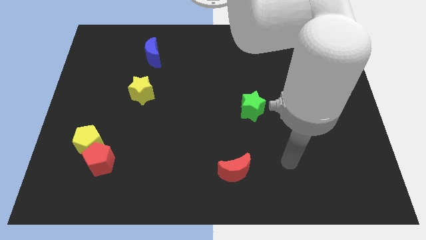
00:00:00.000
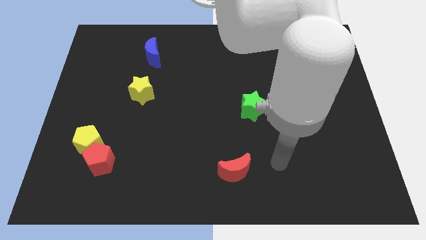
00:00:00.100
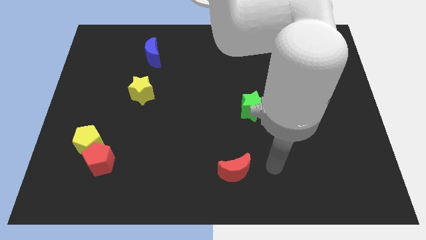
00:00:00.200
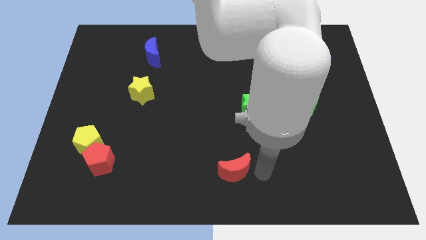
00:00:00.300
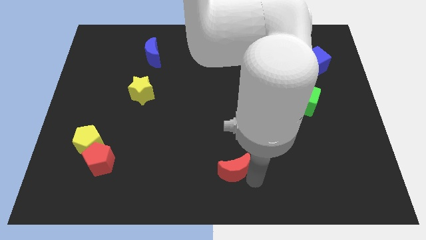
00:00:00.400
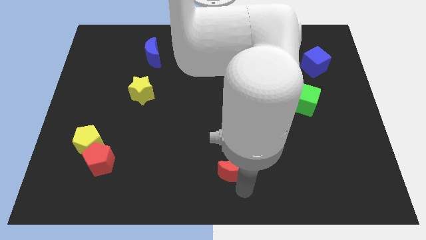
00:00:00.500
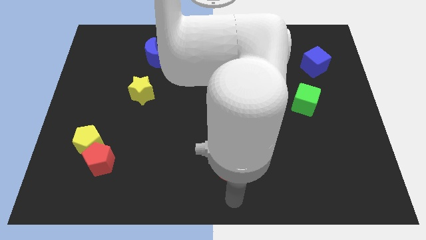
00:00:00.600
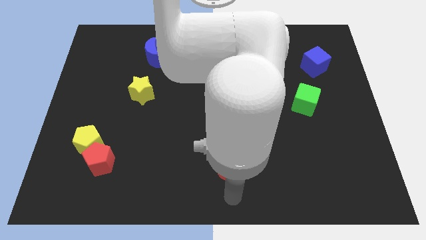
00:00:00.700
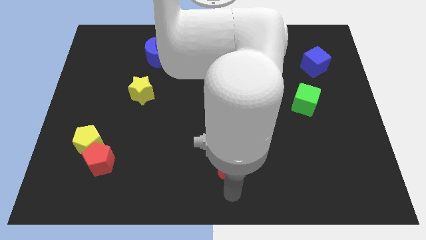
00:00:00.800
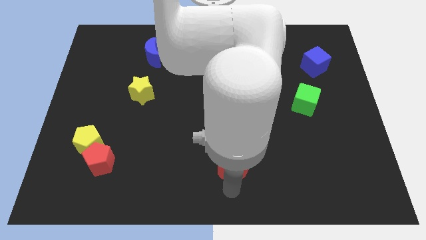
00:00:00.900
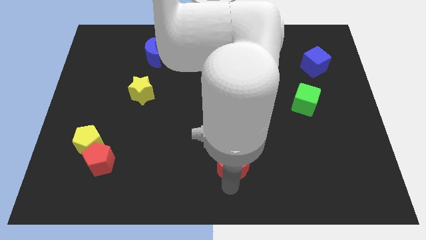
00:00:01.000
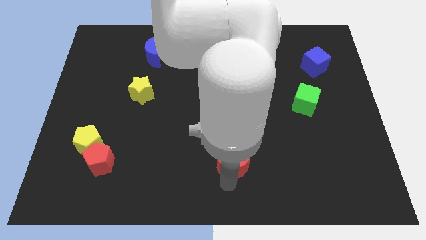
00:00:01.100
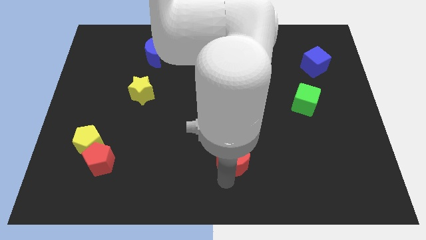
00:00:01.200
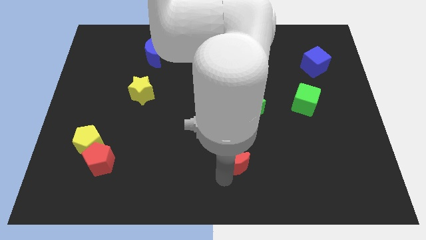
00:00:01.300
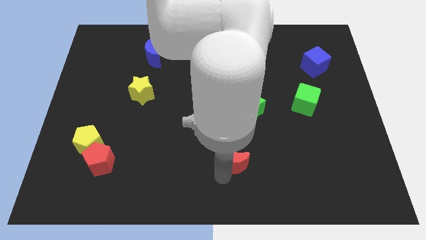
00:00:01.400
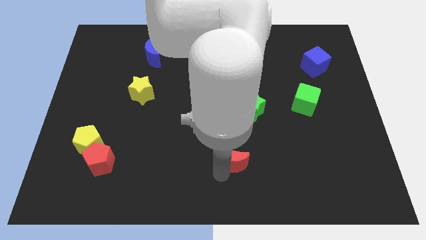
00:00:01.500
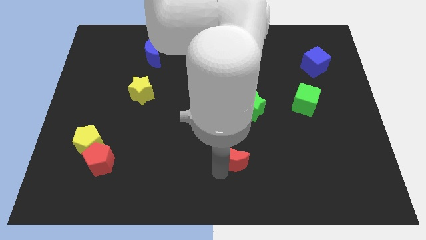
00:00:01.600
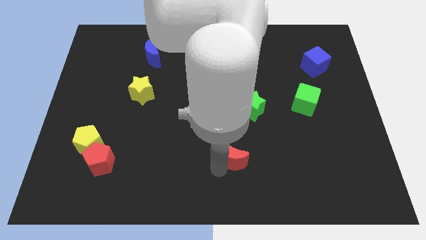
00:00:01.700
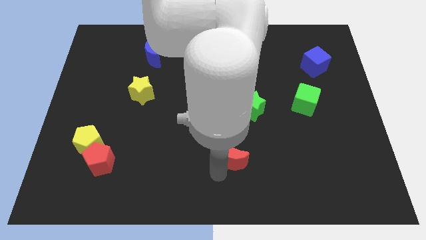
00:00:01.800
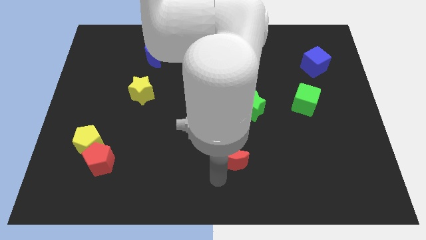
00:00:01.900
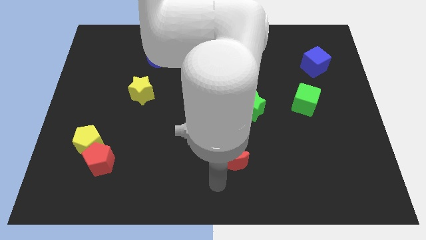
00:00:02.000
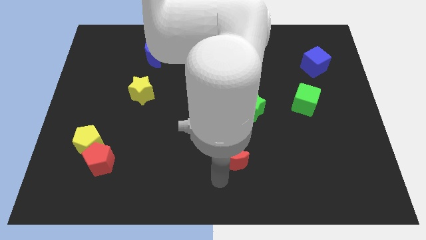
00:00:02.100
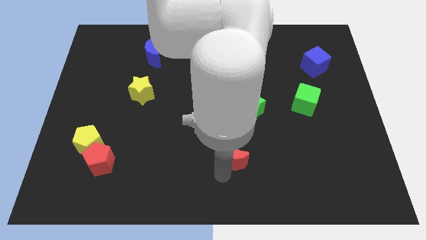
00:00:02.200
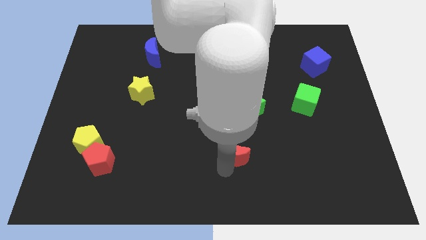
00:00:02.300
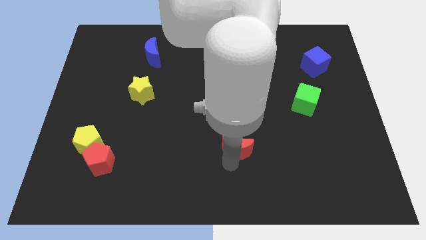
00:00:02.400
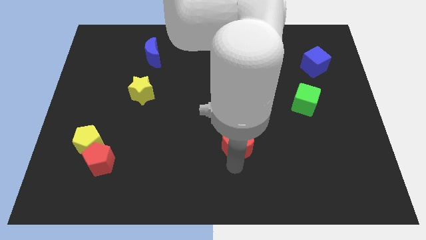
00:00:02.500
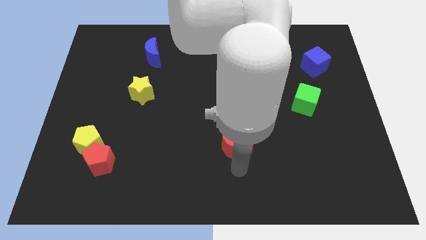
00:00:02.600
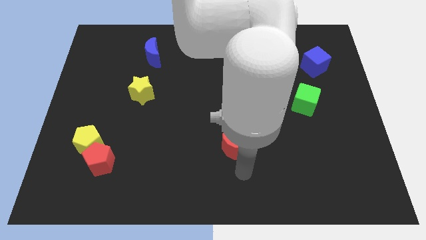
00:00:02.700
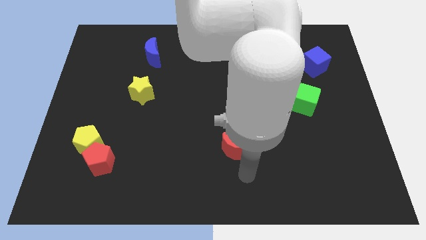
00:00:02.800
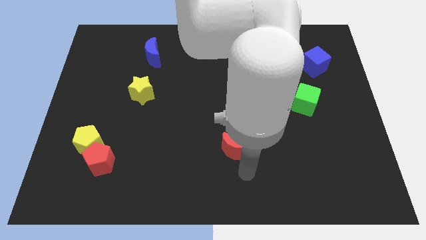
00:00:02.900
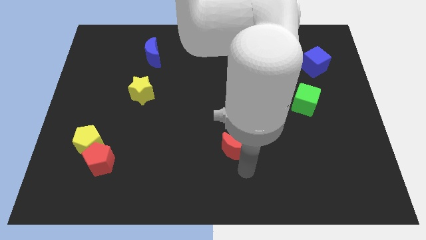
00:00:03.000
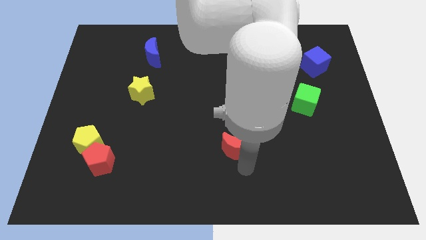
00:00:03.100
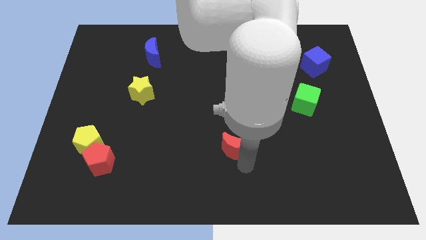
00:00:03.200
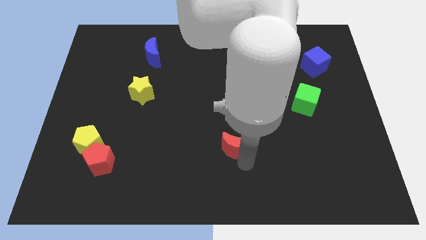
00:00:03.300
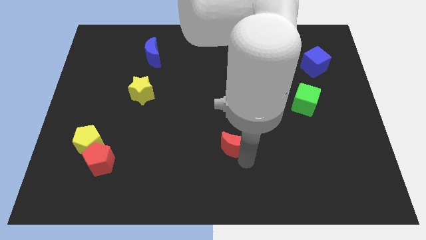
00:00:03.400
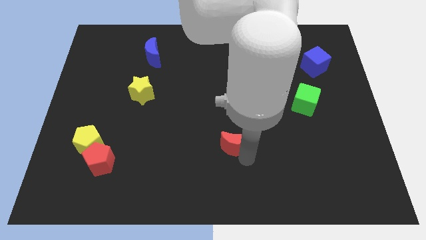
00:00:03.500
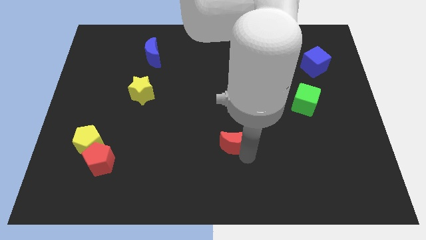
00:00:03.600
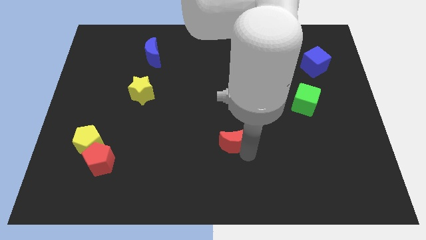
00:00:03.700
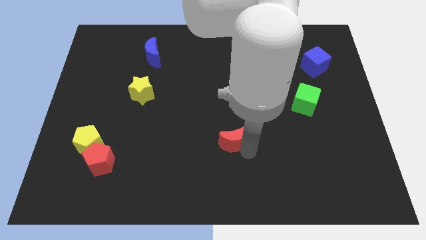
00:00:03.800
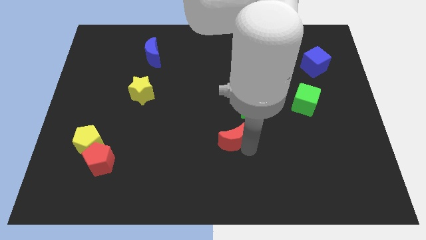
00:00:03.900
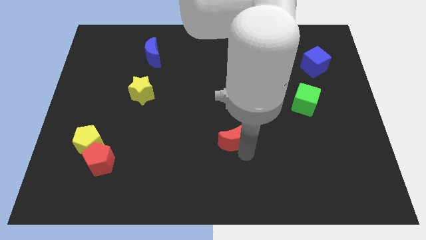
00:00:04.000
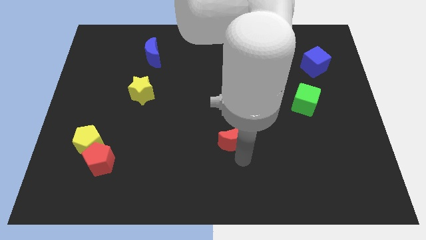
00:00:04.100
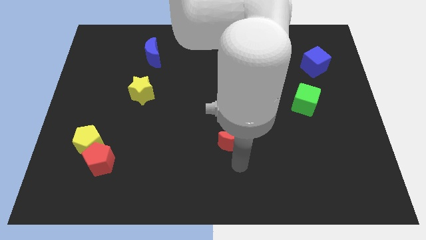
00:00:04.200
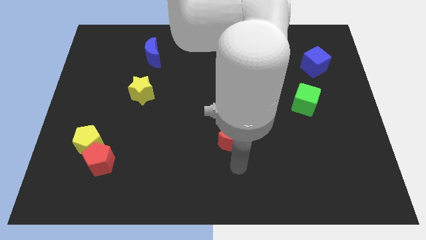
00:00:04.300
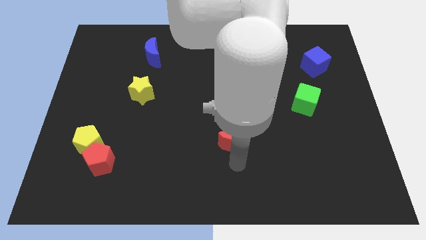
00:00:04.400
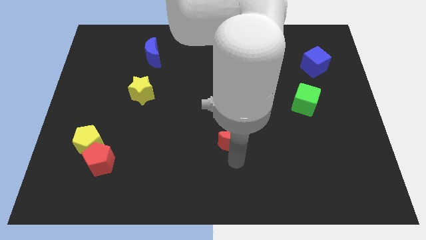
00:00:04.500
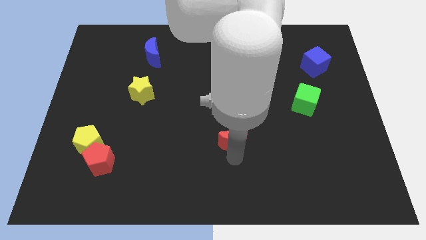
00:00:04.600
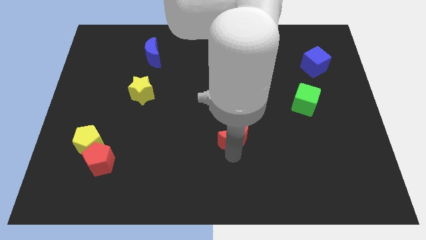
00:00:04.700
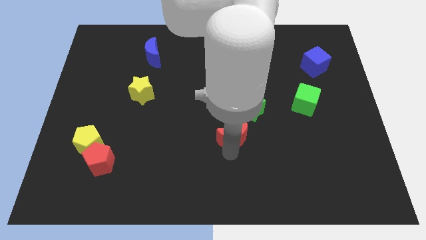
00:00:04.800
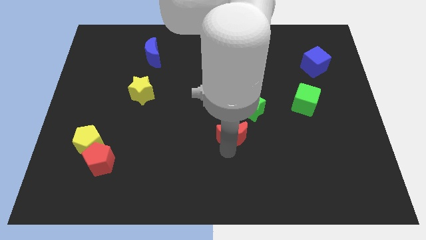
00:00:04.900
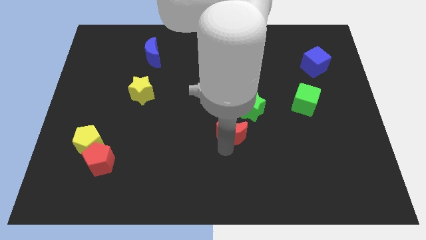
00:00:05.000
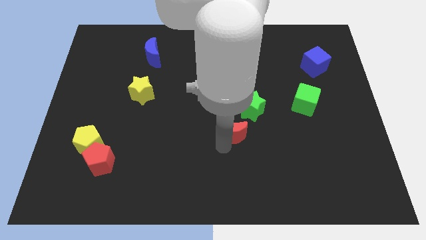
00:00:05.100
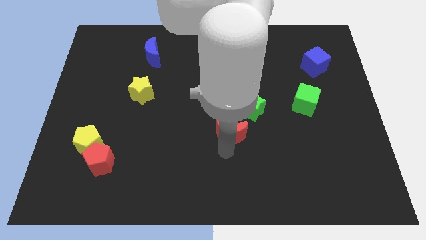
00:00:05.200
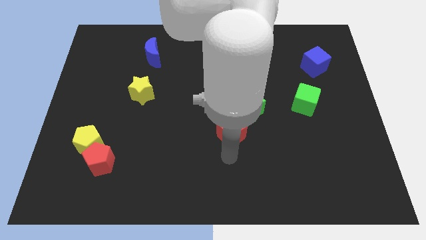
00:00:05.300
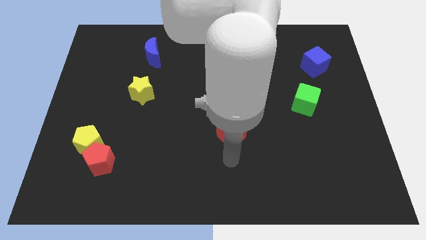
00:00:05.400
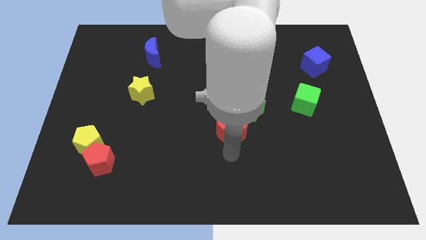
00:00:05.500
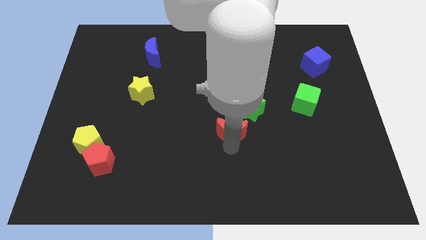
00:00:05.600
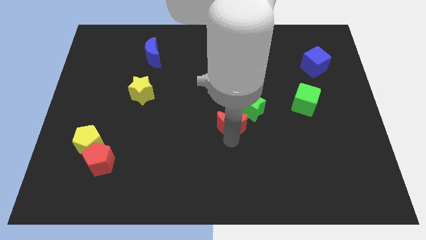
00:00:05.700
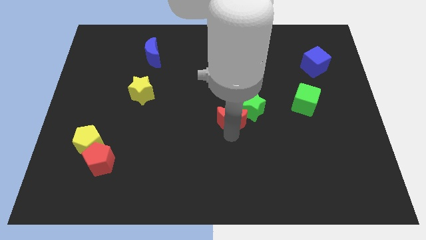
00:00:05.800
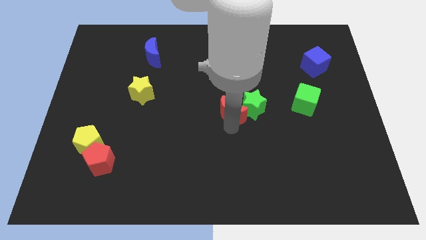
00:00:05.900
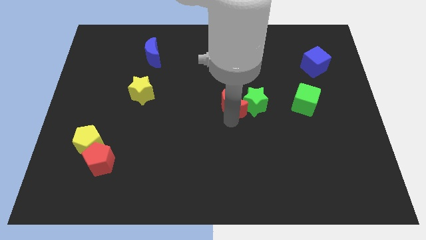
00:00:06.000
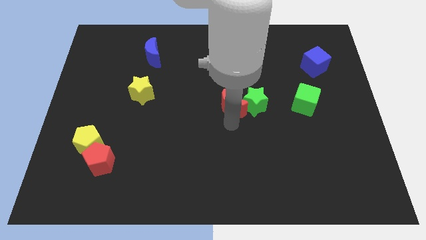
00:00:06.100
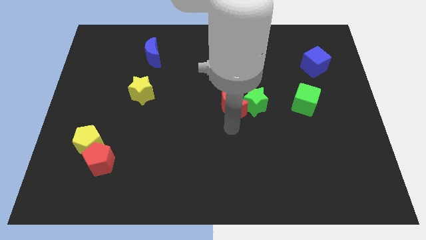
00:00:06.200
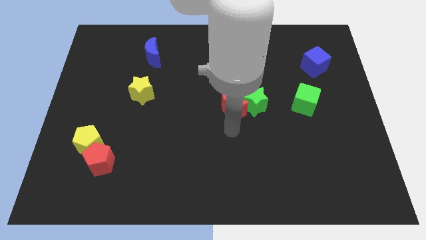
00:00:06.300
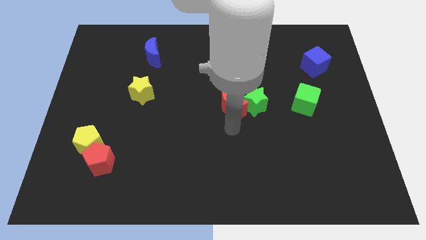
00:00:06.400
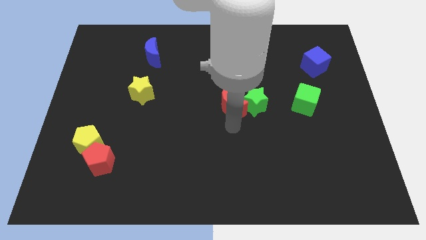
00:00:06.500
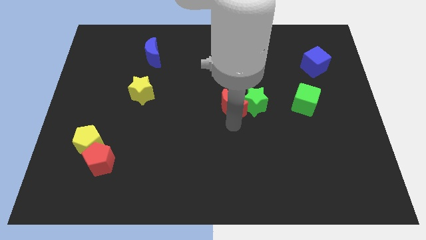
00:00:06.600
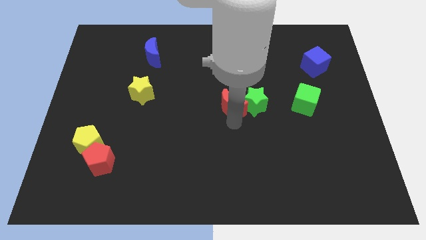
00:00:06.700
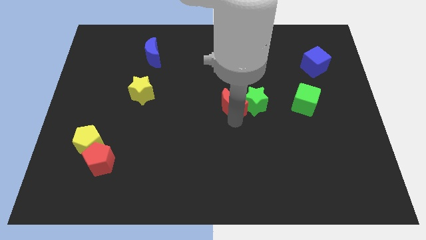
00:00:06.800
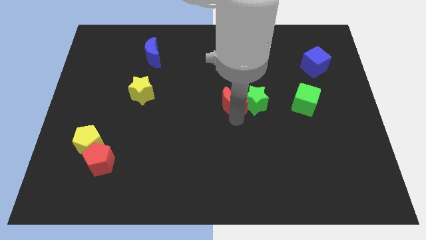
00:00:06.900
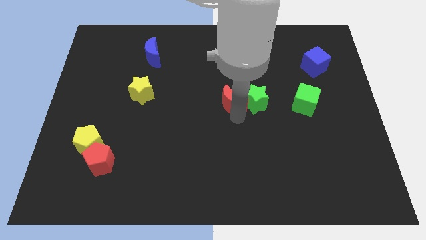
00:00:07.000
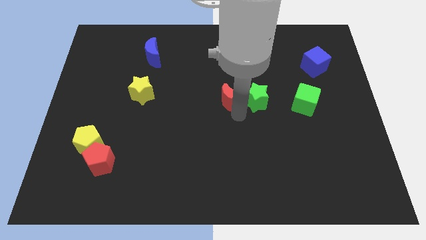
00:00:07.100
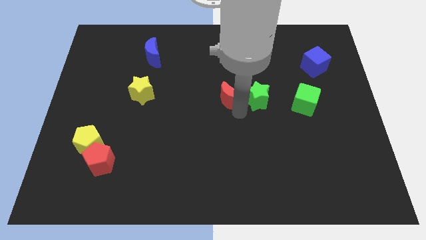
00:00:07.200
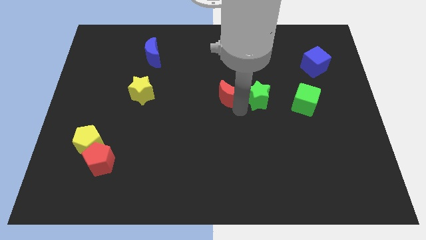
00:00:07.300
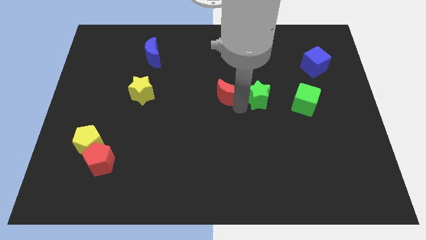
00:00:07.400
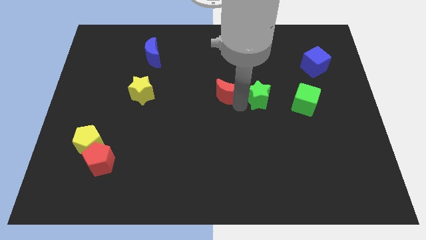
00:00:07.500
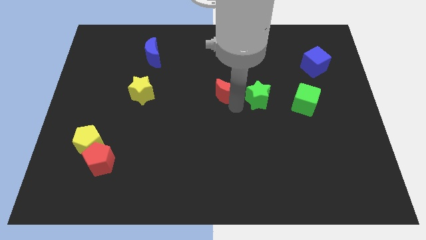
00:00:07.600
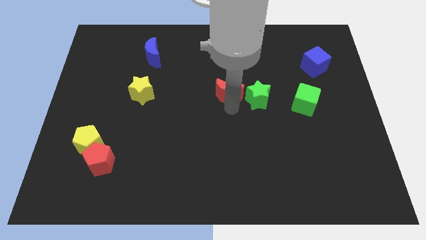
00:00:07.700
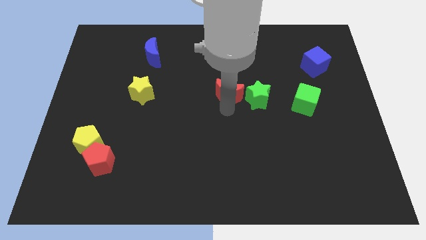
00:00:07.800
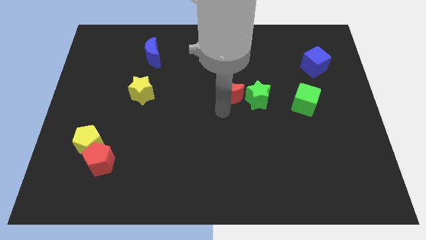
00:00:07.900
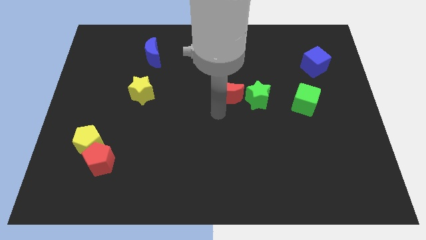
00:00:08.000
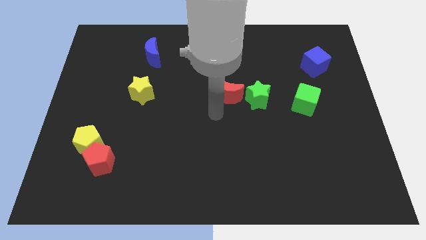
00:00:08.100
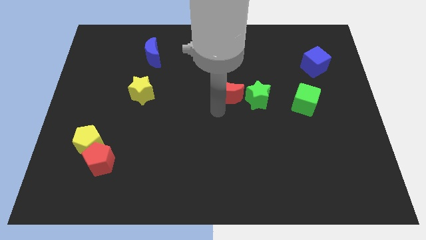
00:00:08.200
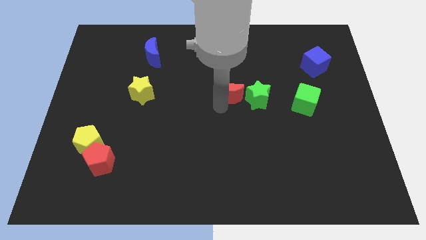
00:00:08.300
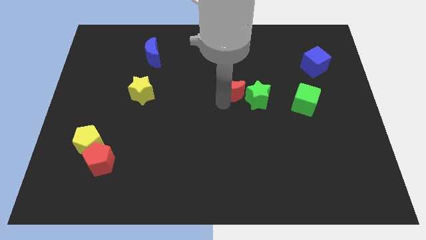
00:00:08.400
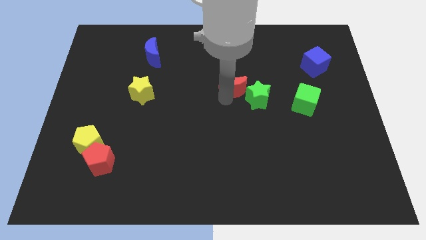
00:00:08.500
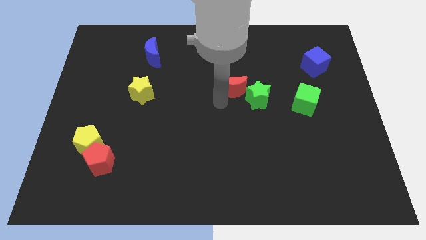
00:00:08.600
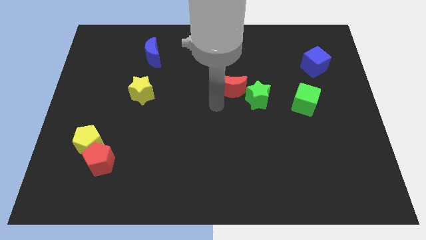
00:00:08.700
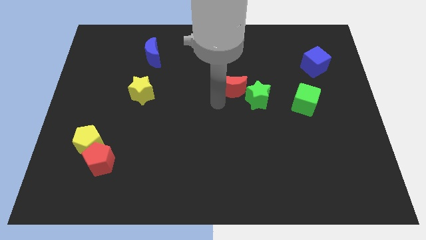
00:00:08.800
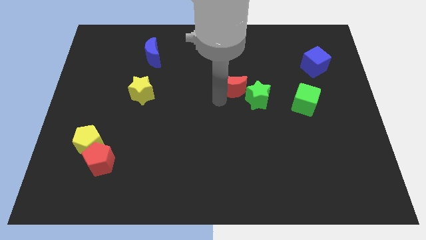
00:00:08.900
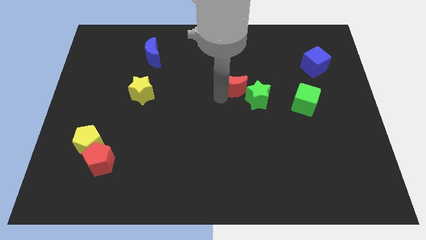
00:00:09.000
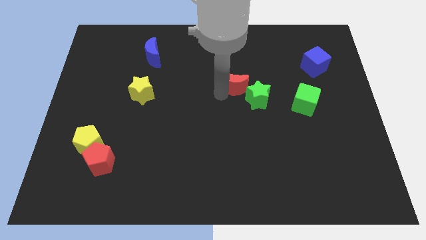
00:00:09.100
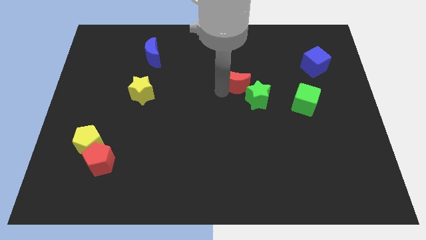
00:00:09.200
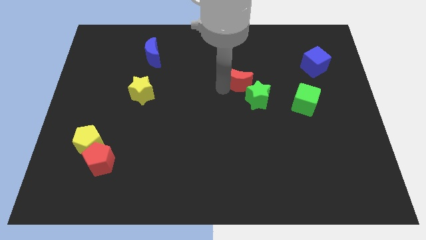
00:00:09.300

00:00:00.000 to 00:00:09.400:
move the red moon above the green star
